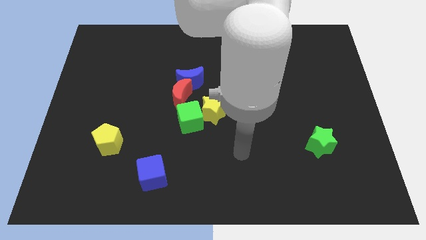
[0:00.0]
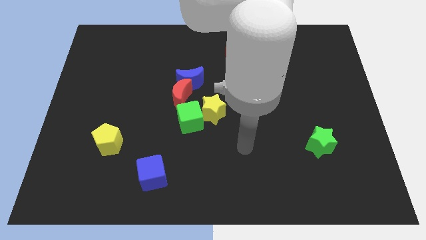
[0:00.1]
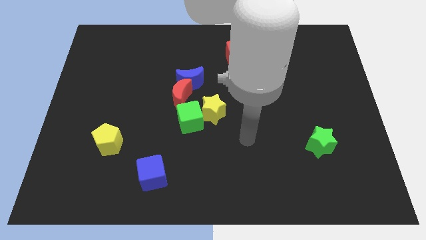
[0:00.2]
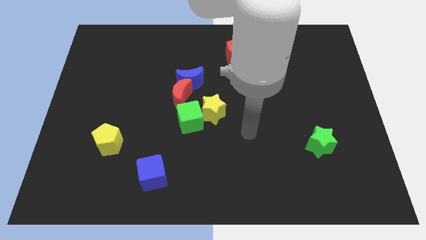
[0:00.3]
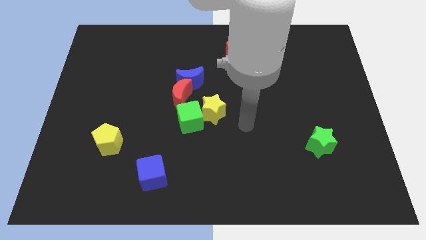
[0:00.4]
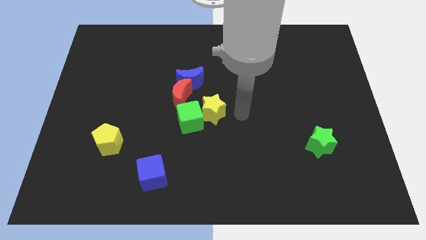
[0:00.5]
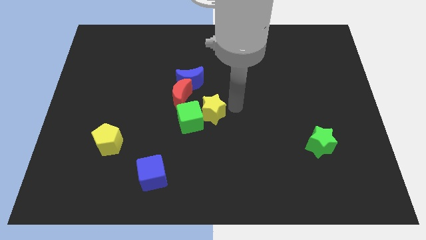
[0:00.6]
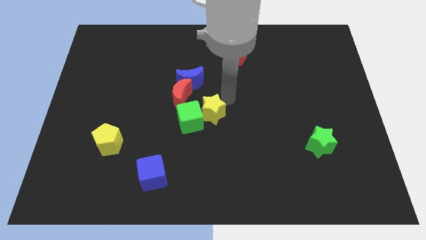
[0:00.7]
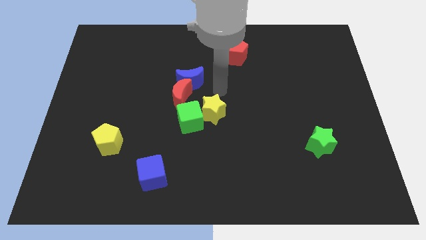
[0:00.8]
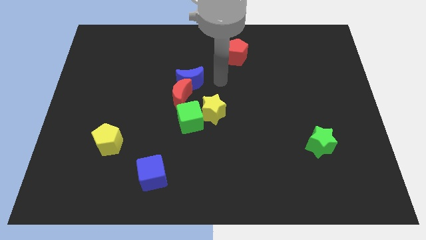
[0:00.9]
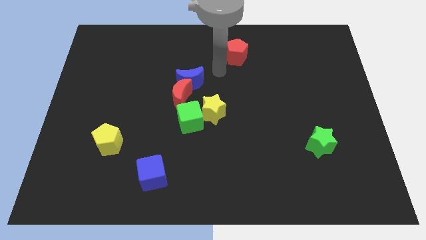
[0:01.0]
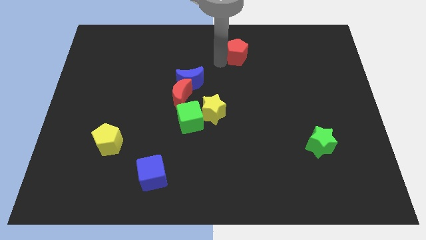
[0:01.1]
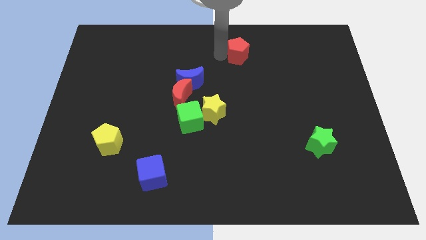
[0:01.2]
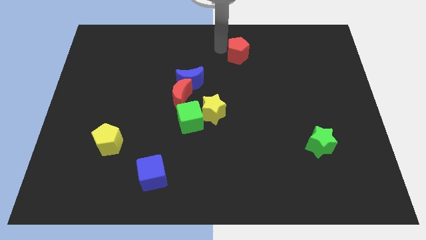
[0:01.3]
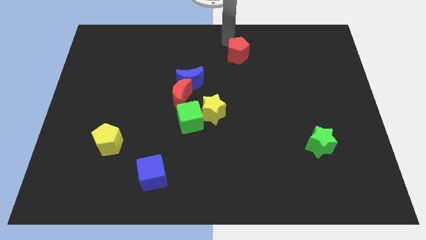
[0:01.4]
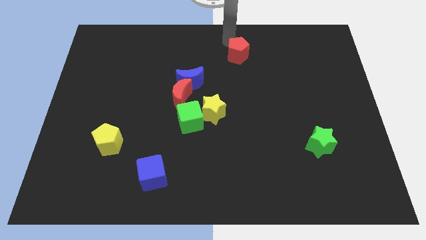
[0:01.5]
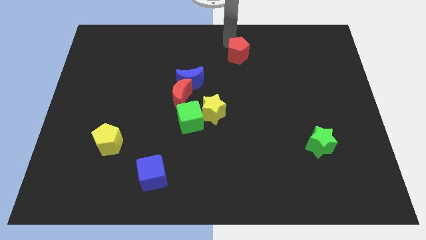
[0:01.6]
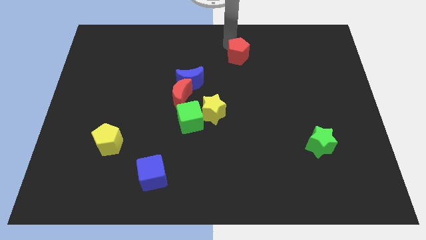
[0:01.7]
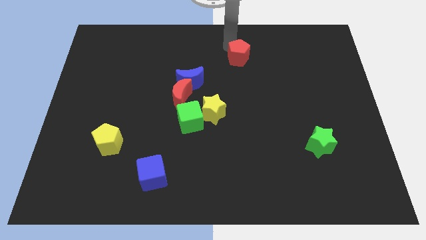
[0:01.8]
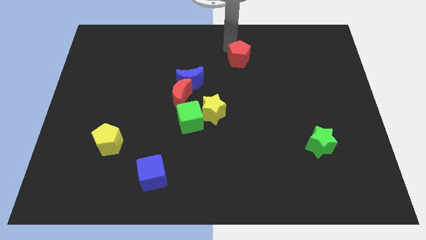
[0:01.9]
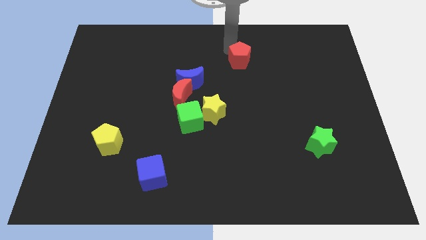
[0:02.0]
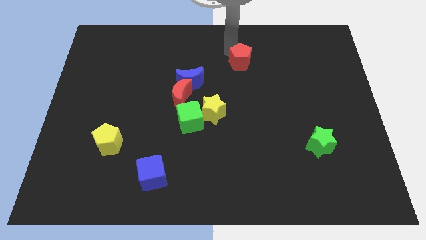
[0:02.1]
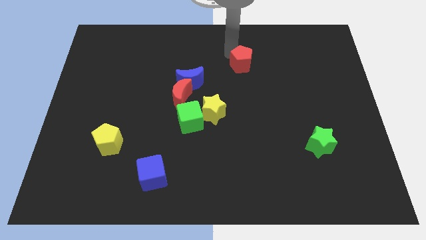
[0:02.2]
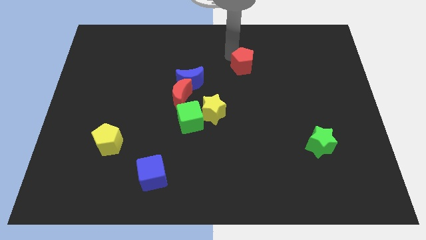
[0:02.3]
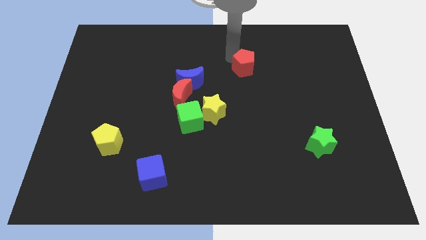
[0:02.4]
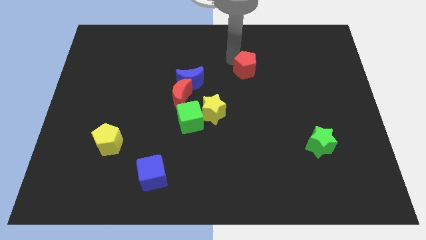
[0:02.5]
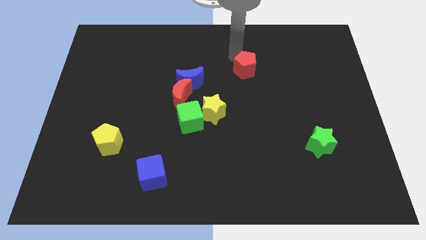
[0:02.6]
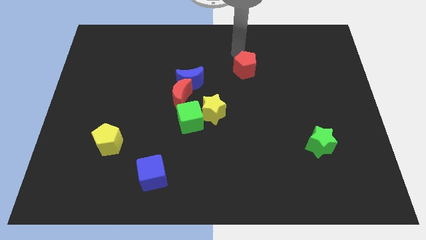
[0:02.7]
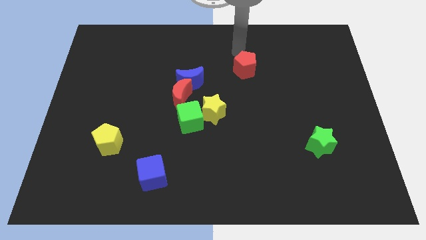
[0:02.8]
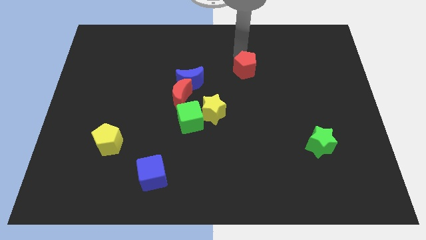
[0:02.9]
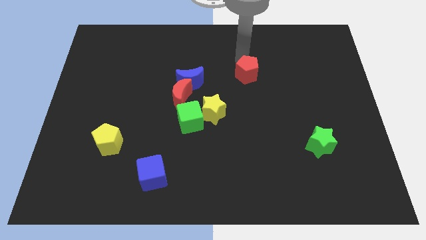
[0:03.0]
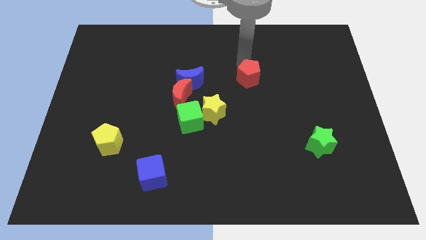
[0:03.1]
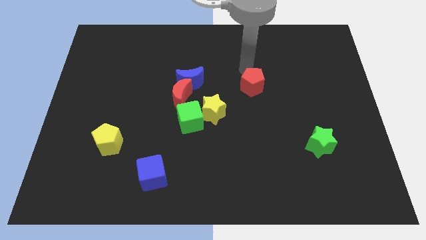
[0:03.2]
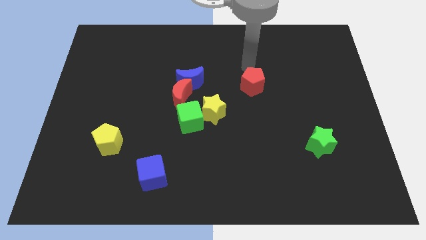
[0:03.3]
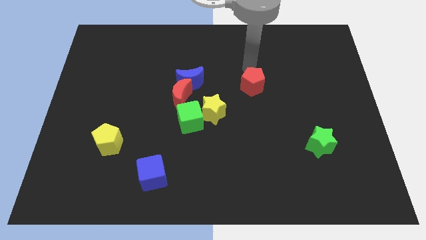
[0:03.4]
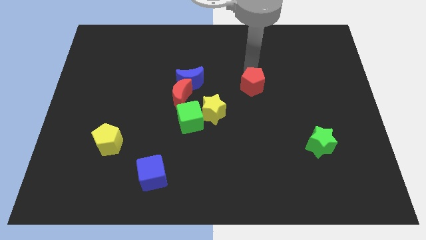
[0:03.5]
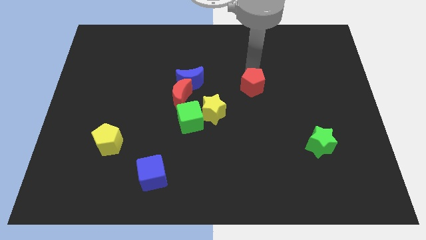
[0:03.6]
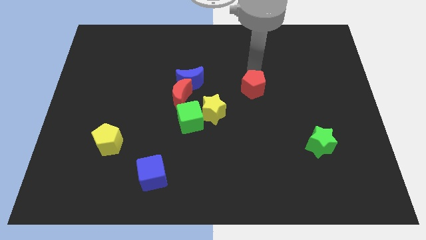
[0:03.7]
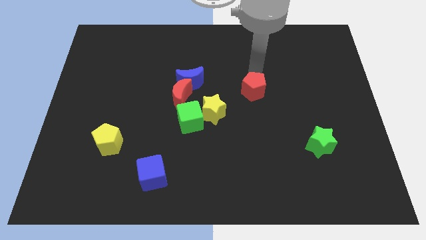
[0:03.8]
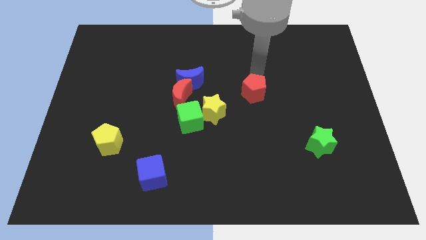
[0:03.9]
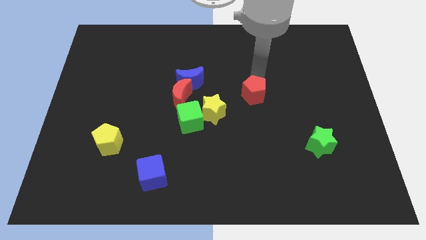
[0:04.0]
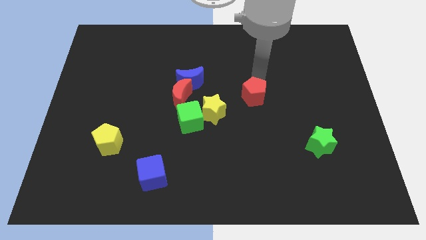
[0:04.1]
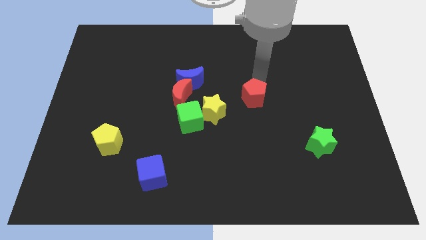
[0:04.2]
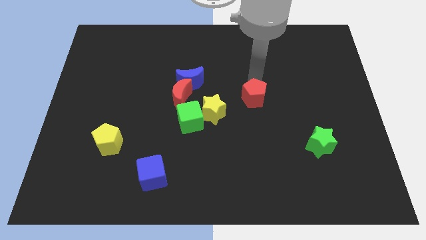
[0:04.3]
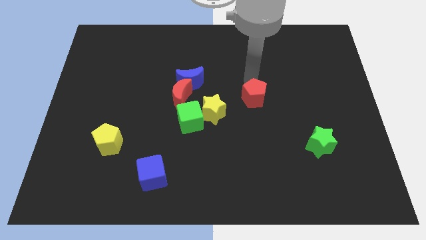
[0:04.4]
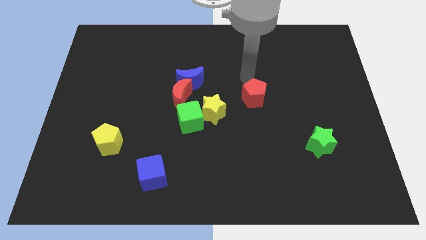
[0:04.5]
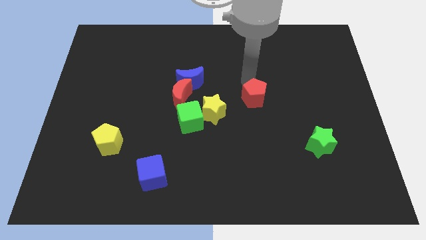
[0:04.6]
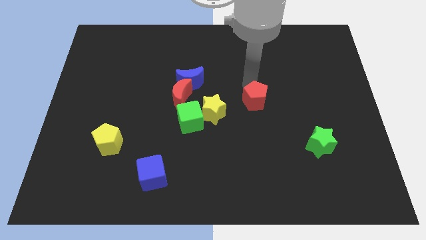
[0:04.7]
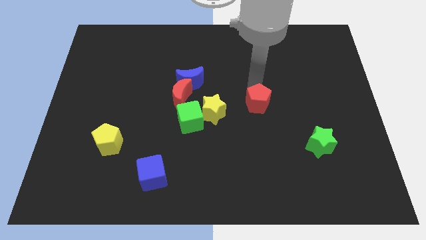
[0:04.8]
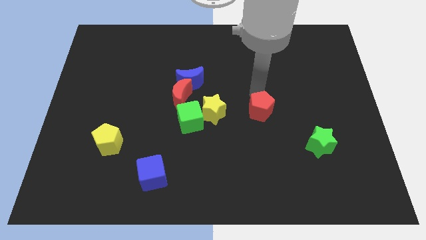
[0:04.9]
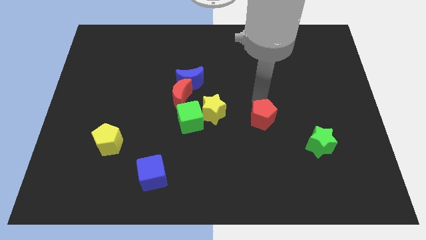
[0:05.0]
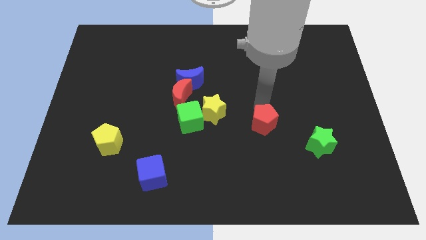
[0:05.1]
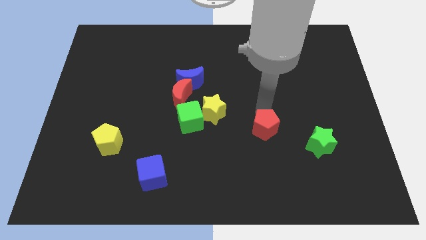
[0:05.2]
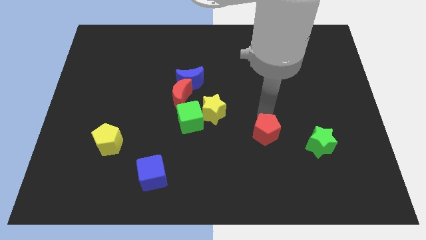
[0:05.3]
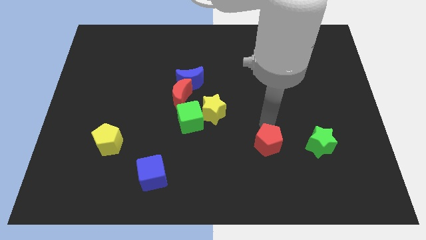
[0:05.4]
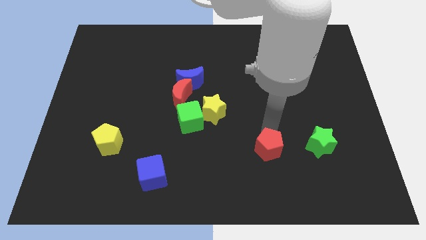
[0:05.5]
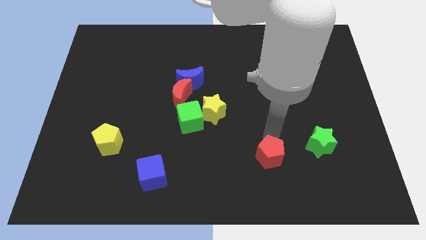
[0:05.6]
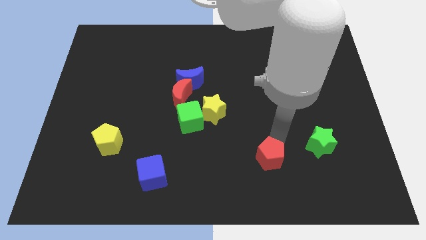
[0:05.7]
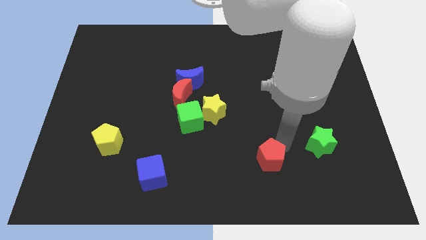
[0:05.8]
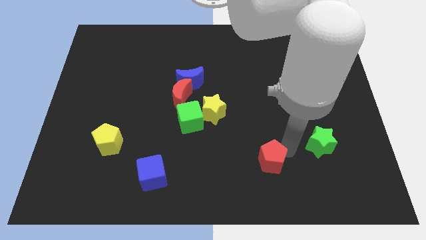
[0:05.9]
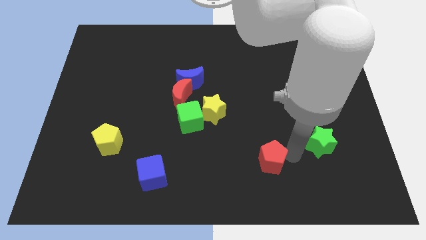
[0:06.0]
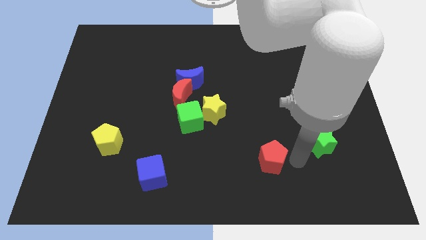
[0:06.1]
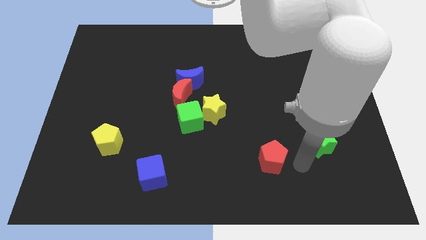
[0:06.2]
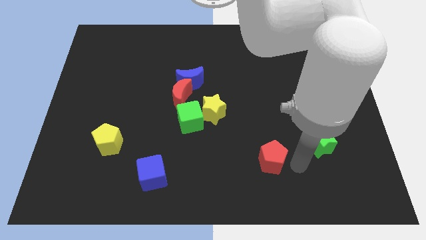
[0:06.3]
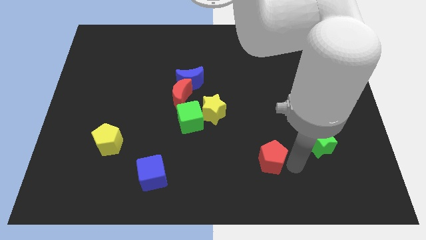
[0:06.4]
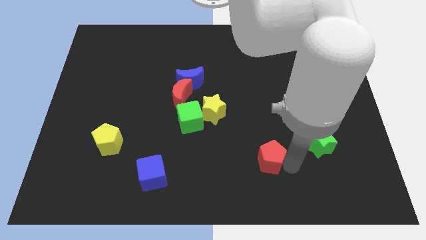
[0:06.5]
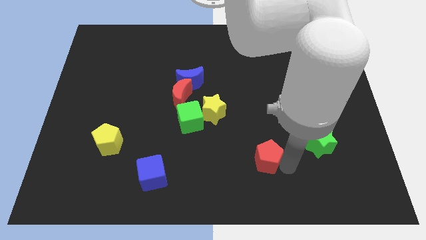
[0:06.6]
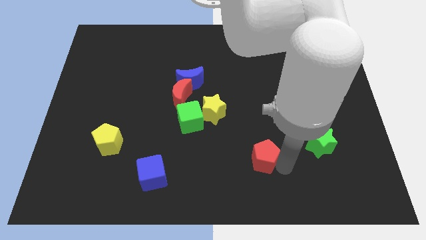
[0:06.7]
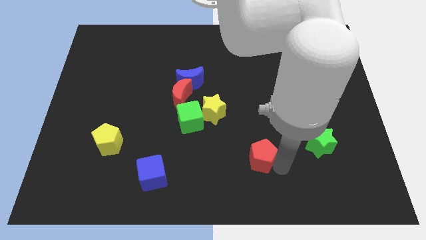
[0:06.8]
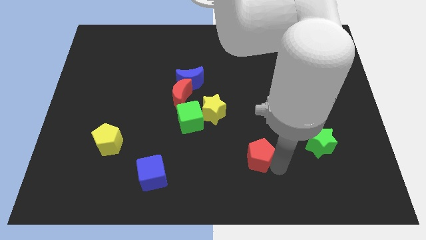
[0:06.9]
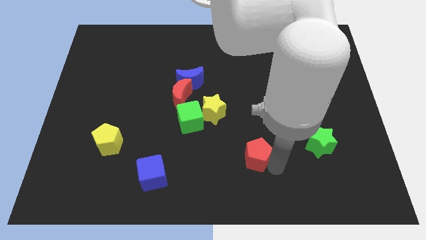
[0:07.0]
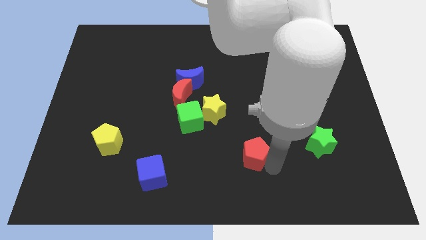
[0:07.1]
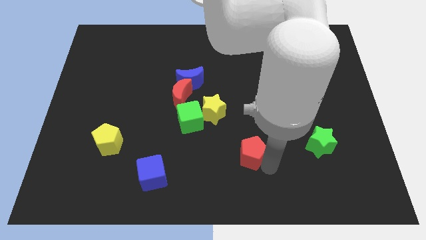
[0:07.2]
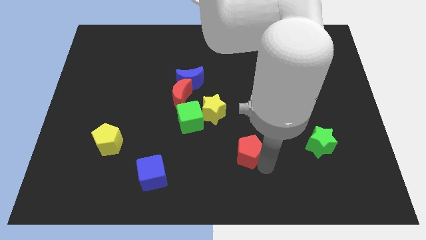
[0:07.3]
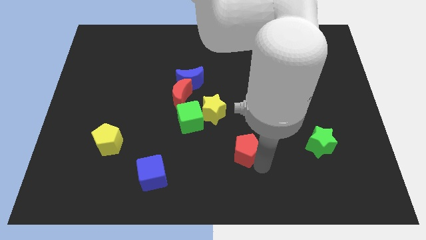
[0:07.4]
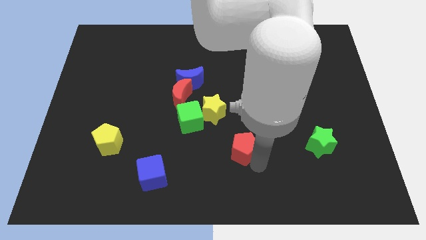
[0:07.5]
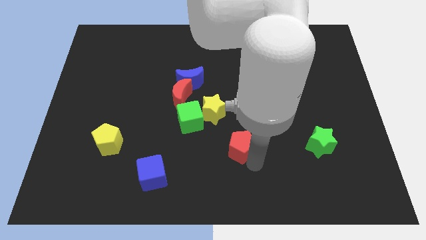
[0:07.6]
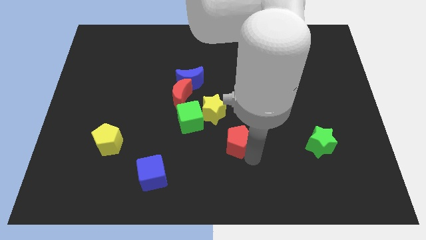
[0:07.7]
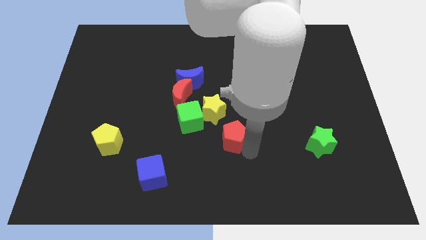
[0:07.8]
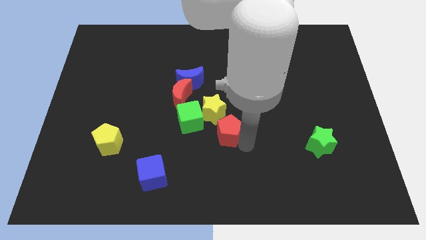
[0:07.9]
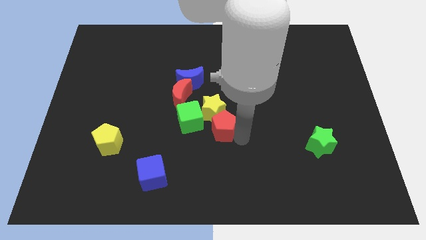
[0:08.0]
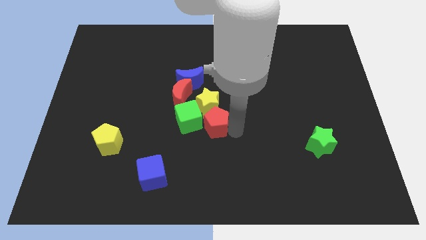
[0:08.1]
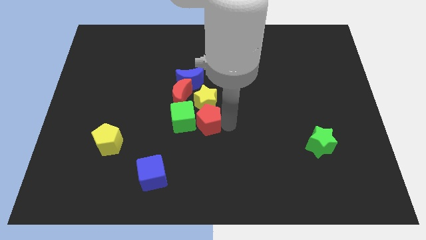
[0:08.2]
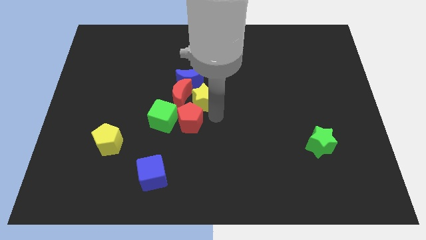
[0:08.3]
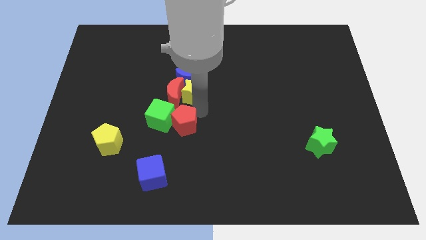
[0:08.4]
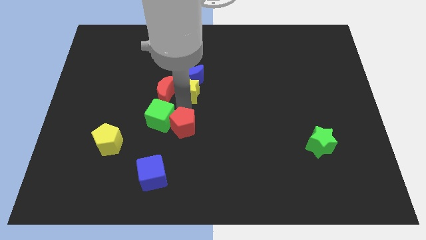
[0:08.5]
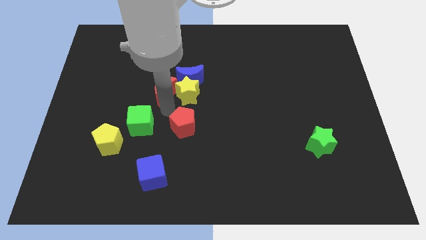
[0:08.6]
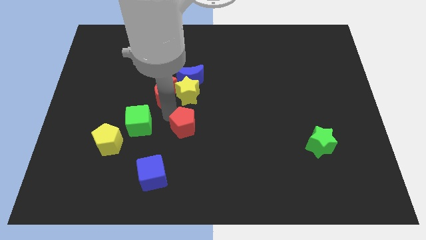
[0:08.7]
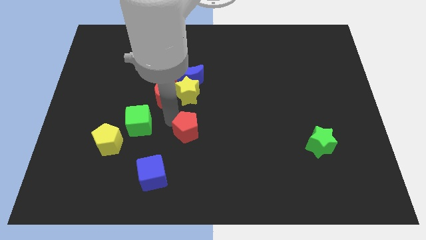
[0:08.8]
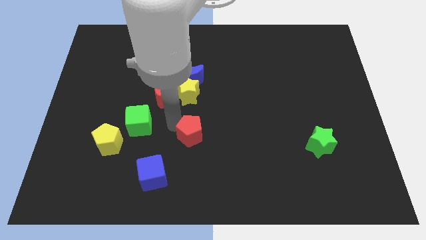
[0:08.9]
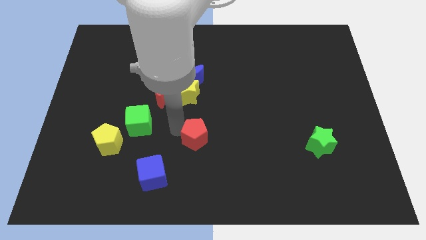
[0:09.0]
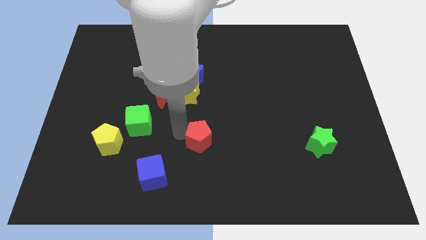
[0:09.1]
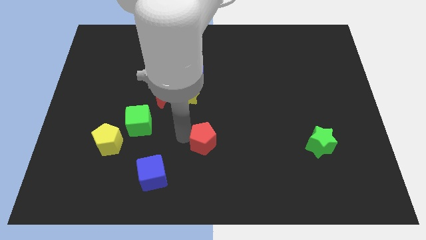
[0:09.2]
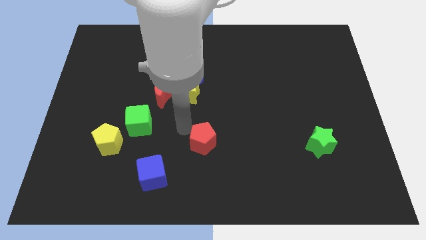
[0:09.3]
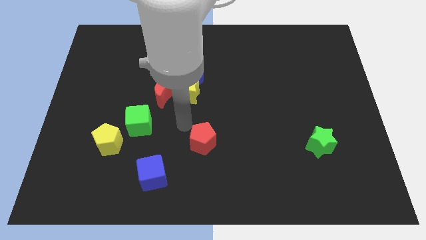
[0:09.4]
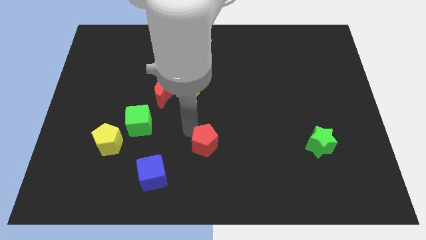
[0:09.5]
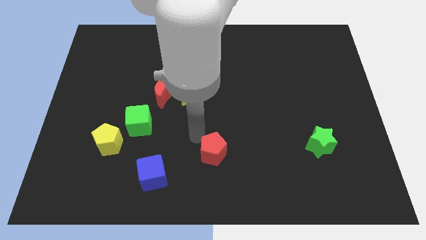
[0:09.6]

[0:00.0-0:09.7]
push the red pentagon to the bottom
